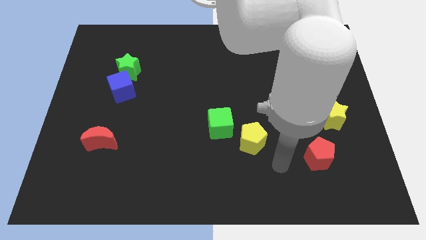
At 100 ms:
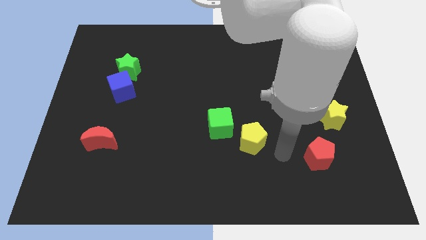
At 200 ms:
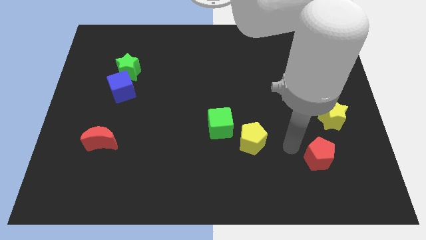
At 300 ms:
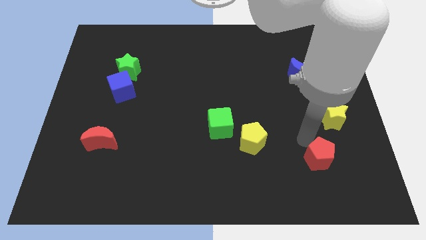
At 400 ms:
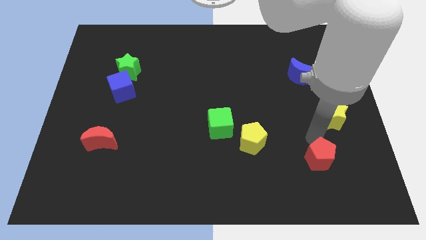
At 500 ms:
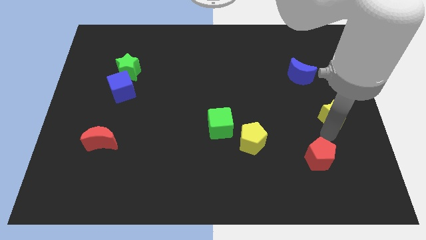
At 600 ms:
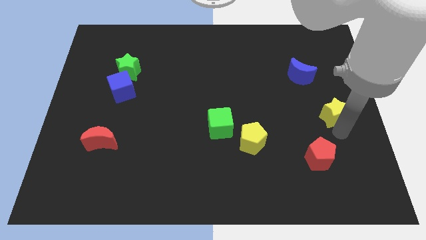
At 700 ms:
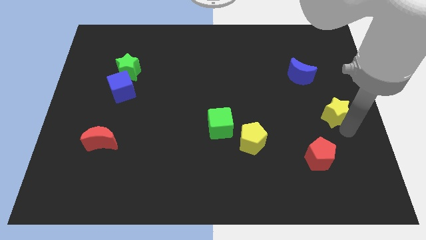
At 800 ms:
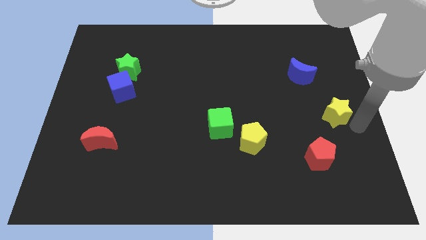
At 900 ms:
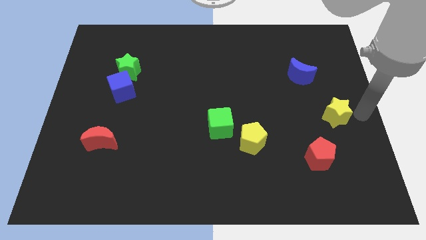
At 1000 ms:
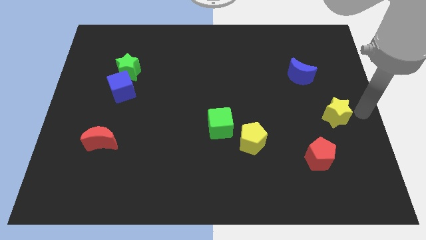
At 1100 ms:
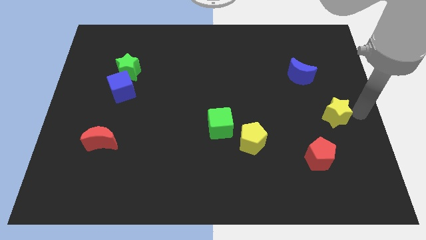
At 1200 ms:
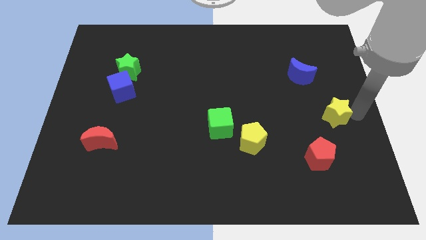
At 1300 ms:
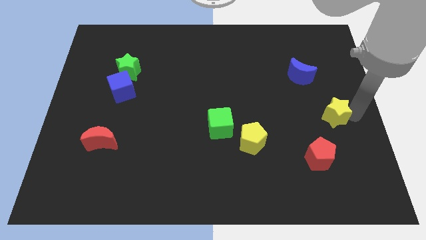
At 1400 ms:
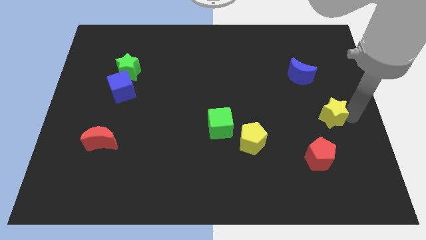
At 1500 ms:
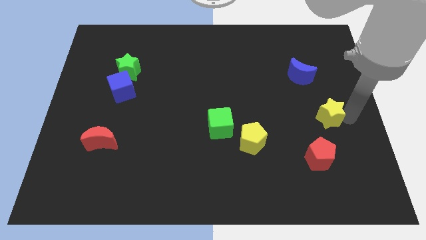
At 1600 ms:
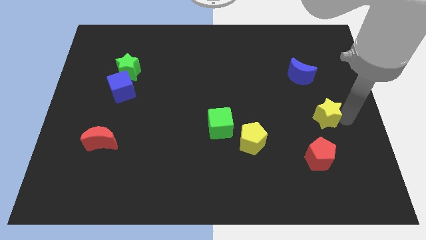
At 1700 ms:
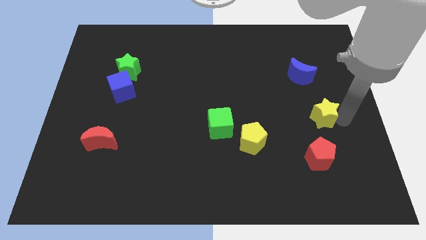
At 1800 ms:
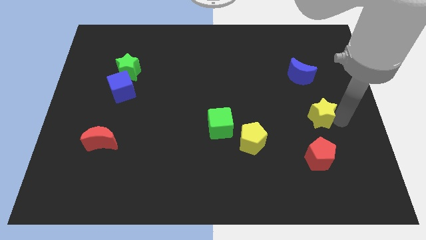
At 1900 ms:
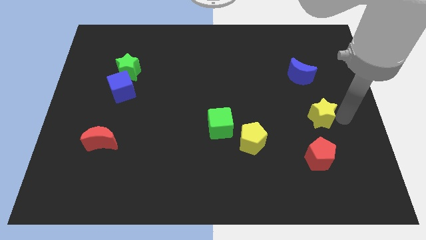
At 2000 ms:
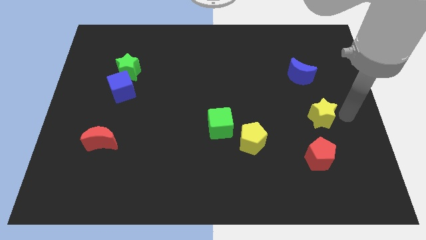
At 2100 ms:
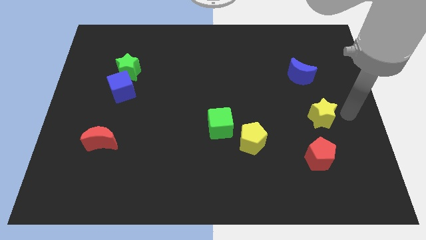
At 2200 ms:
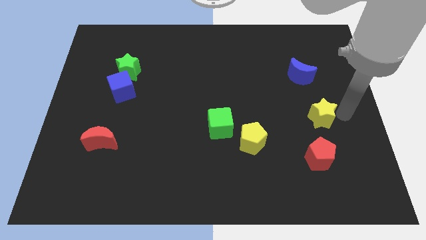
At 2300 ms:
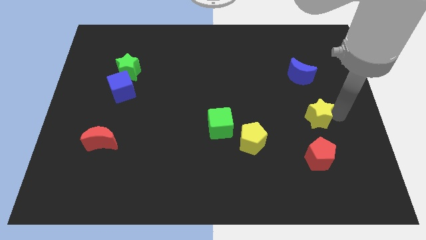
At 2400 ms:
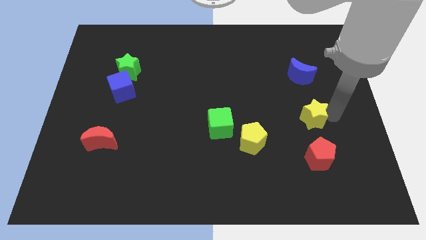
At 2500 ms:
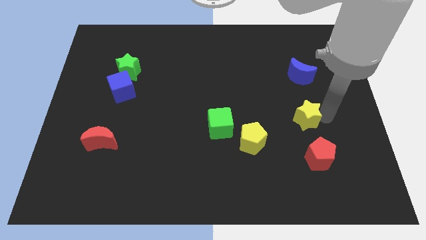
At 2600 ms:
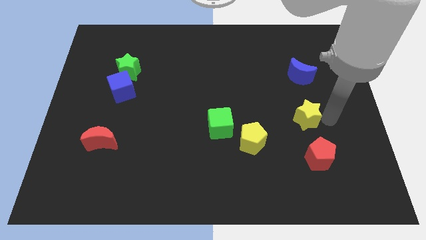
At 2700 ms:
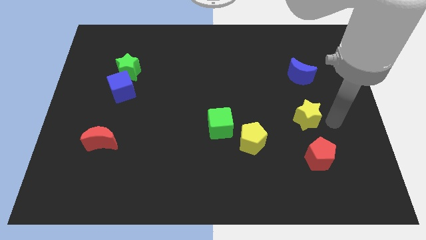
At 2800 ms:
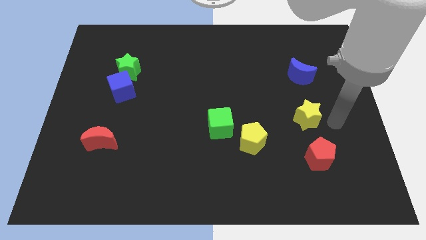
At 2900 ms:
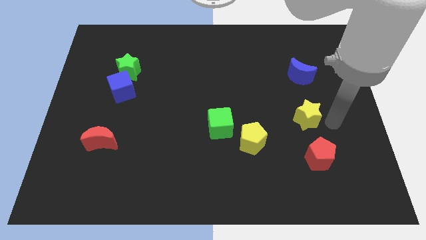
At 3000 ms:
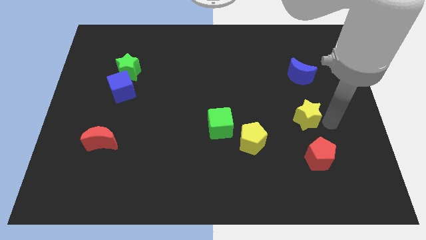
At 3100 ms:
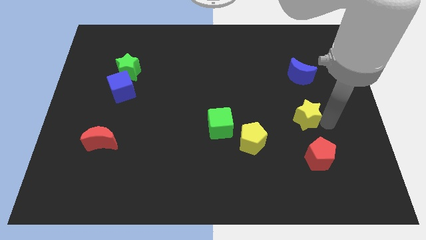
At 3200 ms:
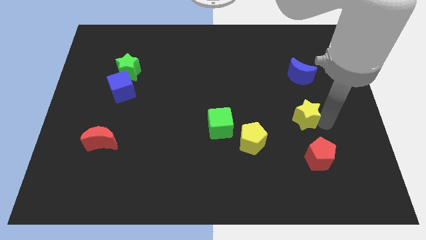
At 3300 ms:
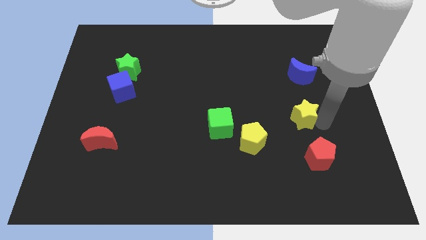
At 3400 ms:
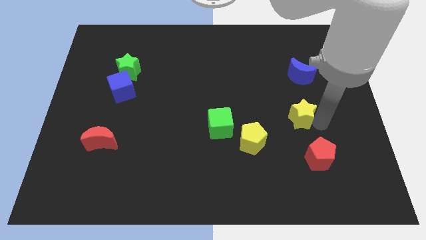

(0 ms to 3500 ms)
push the yellow star to the left a little bit

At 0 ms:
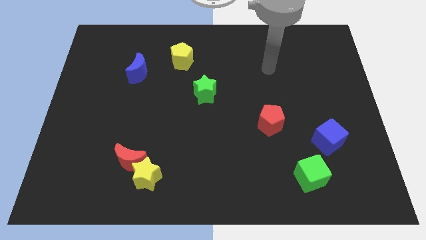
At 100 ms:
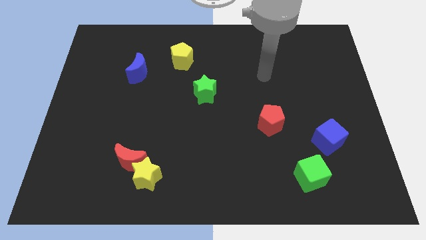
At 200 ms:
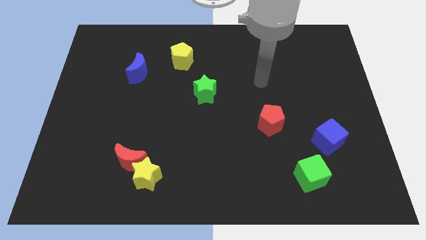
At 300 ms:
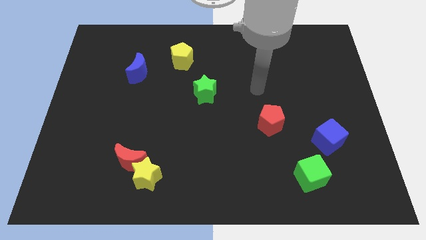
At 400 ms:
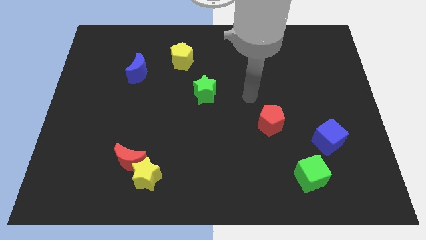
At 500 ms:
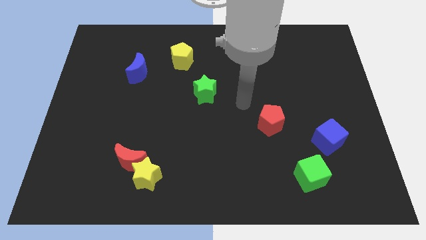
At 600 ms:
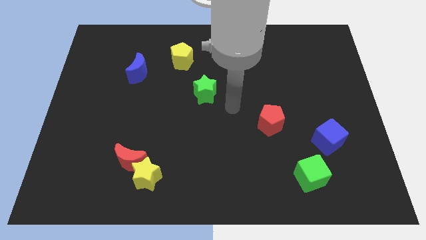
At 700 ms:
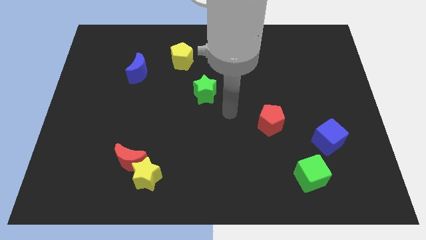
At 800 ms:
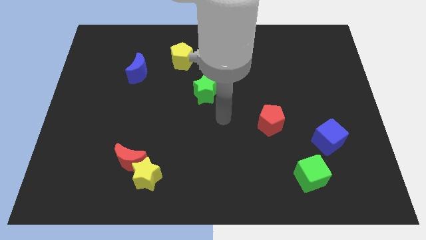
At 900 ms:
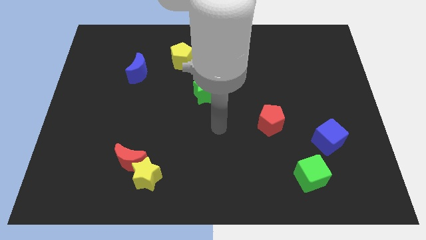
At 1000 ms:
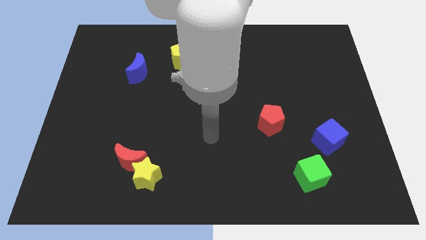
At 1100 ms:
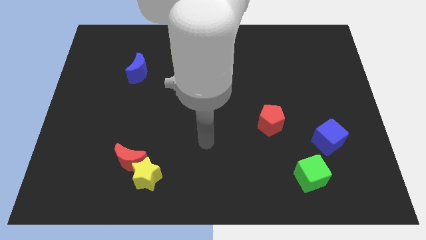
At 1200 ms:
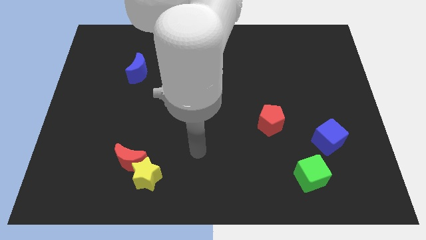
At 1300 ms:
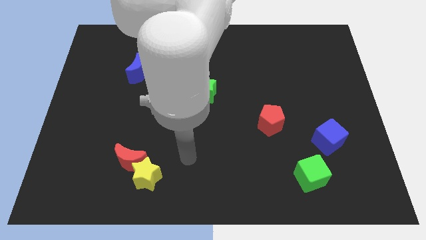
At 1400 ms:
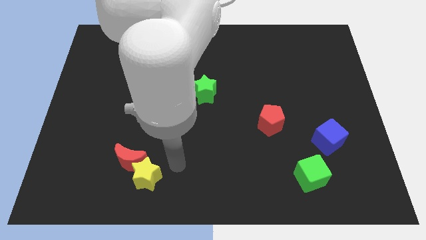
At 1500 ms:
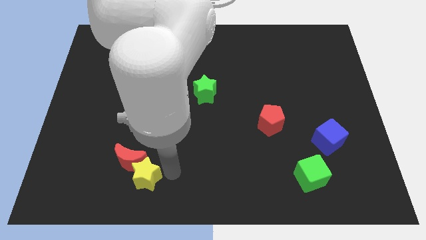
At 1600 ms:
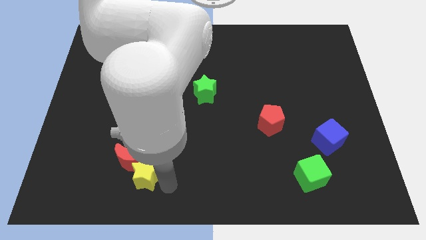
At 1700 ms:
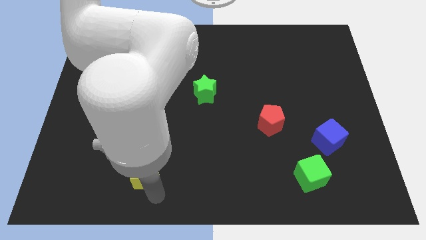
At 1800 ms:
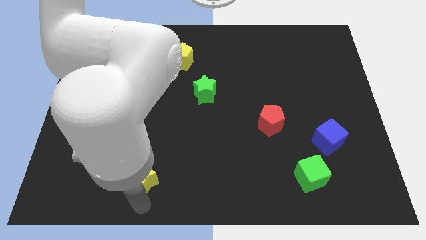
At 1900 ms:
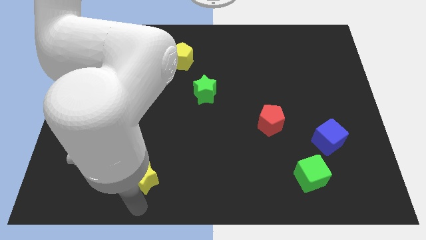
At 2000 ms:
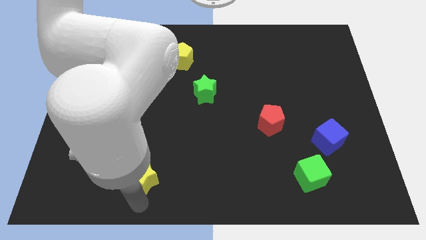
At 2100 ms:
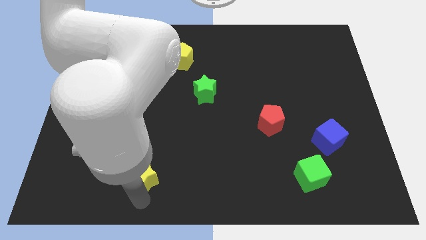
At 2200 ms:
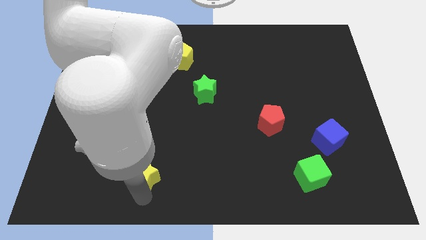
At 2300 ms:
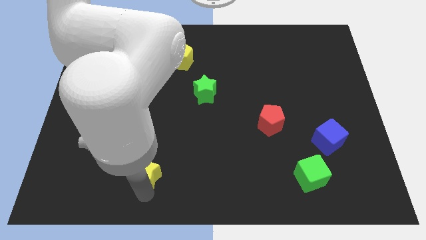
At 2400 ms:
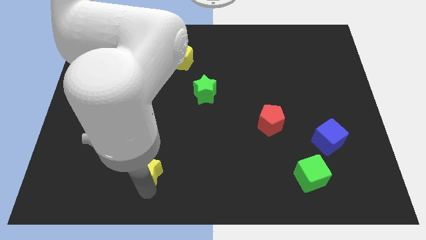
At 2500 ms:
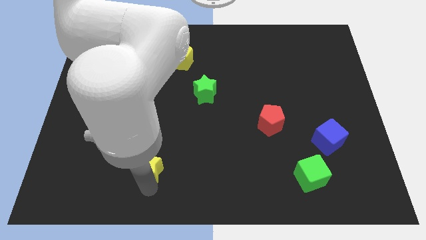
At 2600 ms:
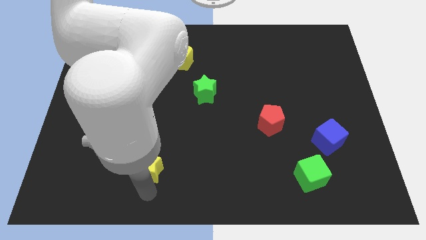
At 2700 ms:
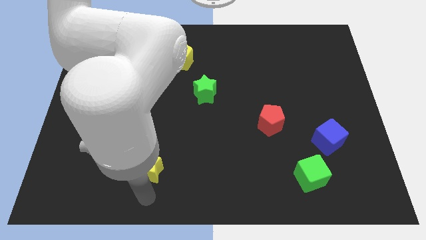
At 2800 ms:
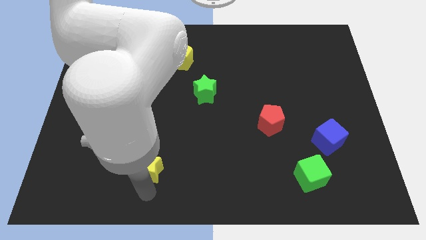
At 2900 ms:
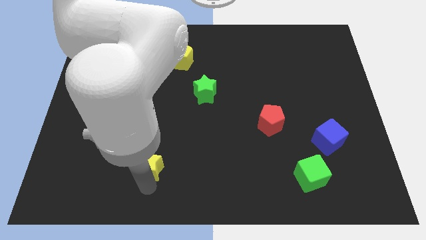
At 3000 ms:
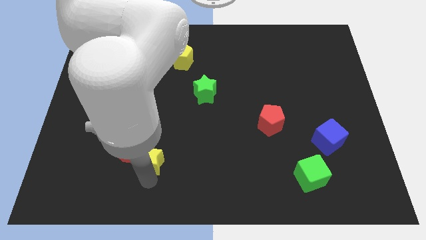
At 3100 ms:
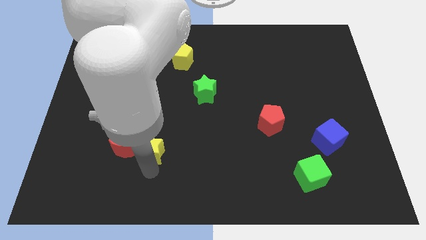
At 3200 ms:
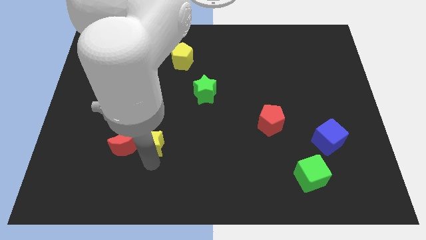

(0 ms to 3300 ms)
move the yellow star upwards a bit

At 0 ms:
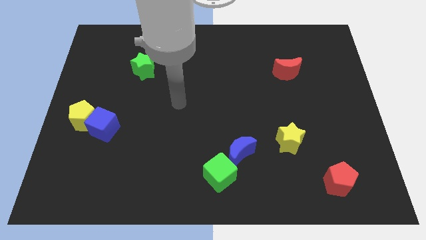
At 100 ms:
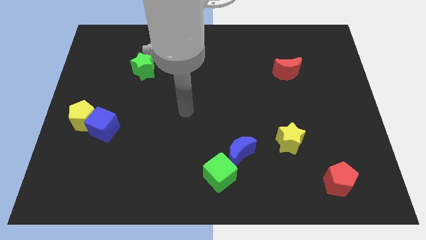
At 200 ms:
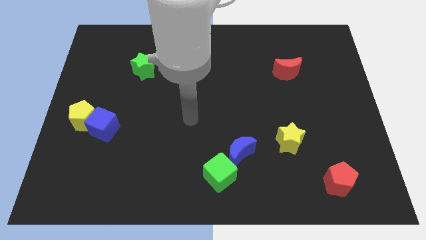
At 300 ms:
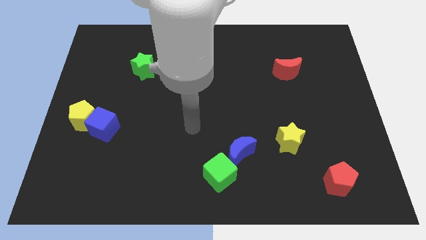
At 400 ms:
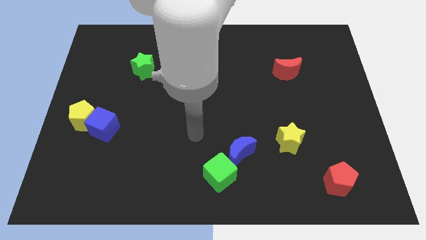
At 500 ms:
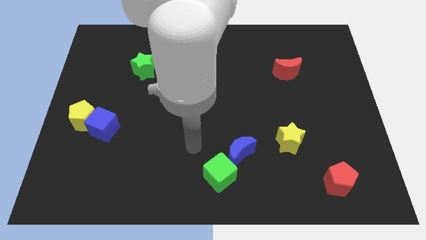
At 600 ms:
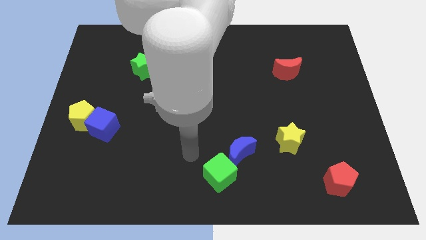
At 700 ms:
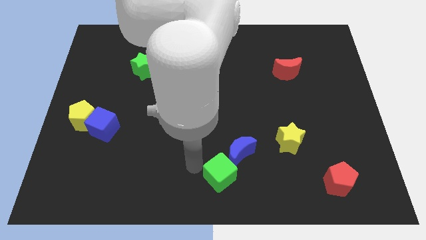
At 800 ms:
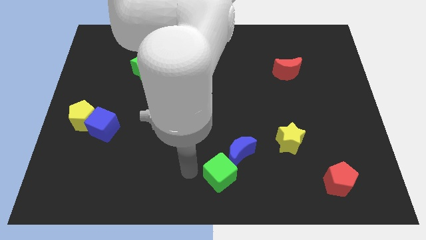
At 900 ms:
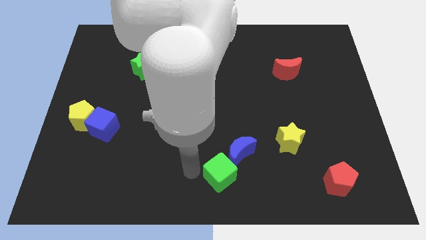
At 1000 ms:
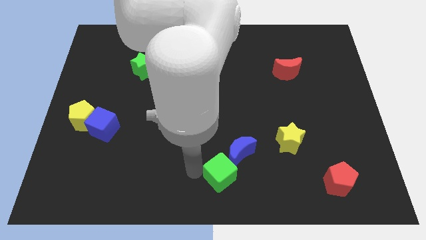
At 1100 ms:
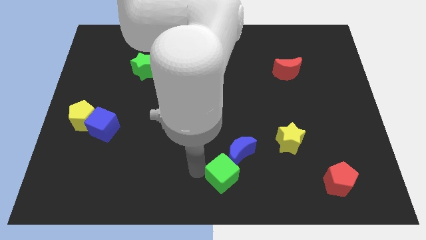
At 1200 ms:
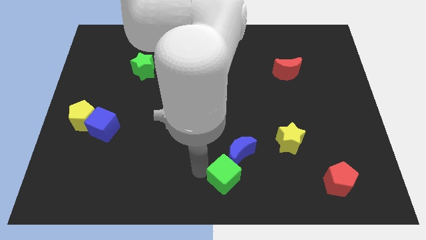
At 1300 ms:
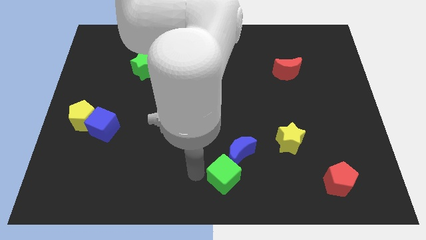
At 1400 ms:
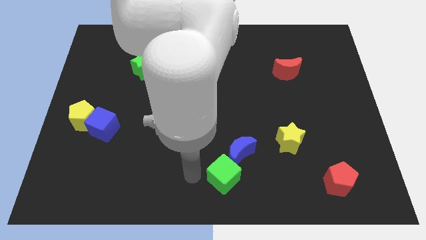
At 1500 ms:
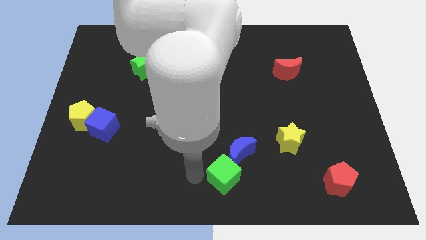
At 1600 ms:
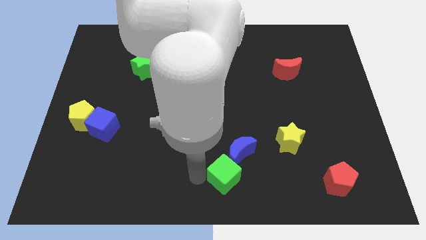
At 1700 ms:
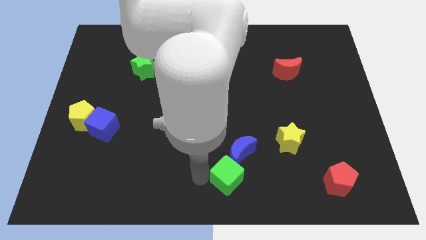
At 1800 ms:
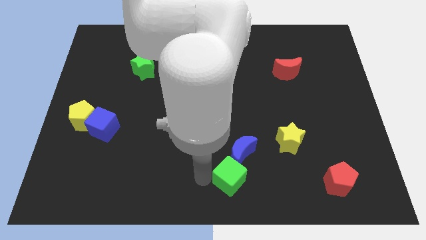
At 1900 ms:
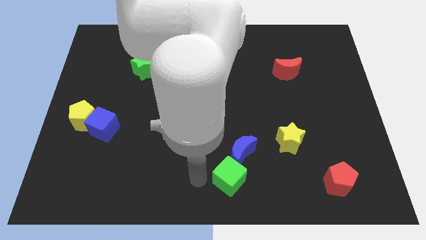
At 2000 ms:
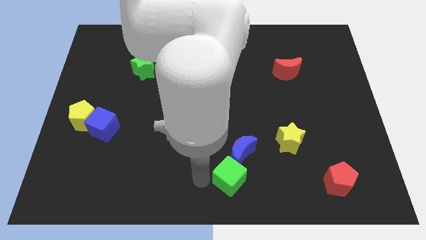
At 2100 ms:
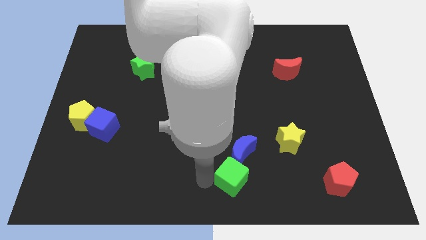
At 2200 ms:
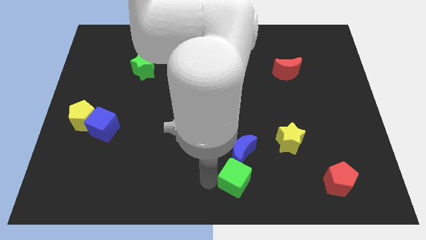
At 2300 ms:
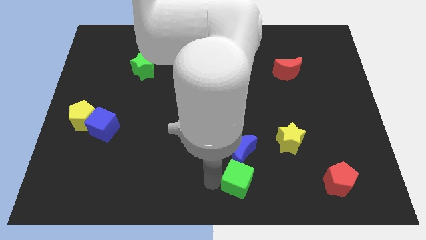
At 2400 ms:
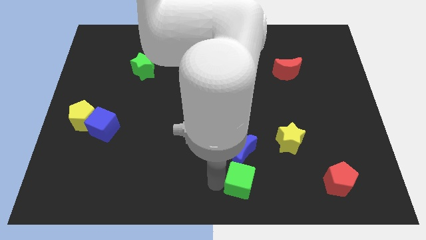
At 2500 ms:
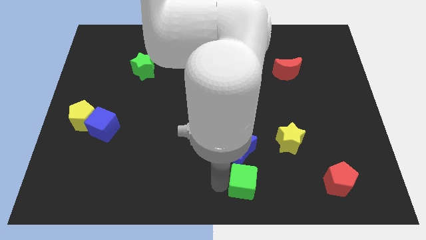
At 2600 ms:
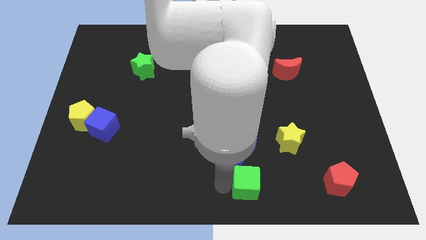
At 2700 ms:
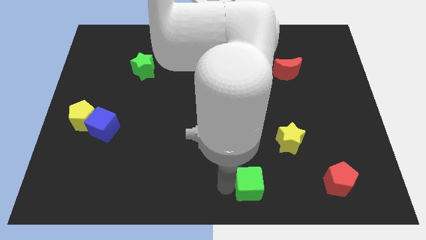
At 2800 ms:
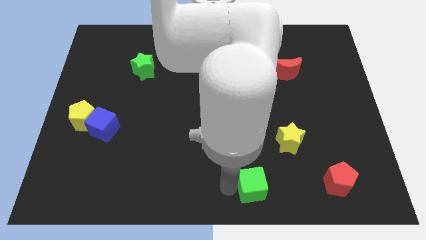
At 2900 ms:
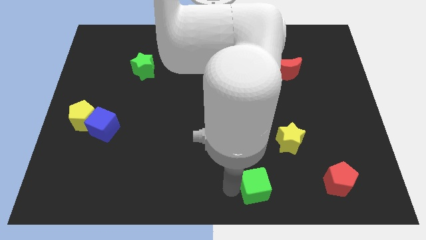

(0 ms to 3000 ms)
move the green cube to the right a little bit
